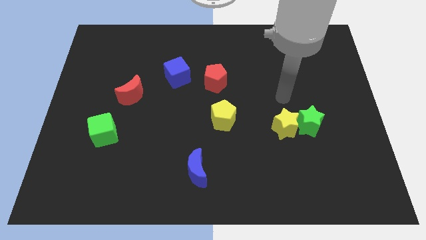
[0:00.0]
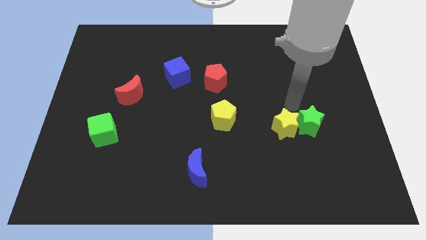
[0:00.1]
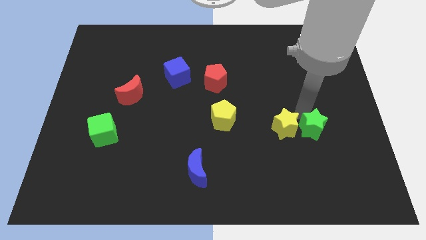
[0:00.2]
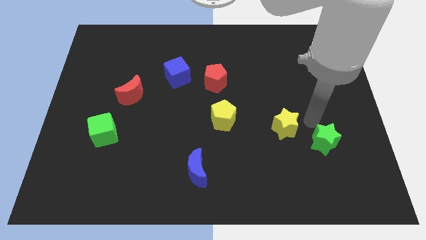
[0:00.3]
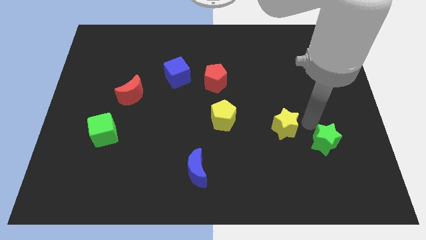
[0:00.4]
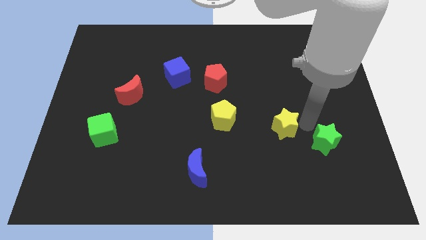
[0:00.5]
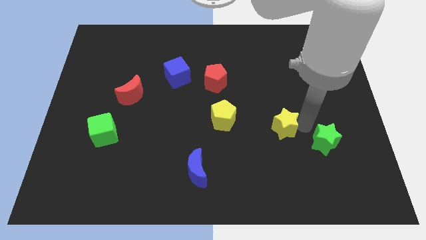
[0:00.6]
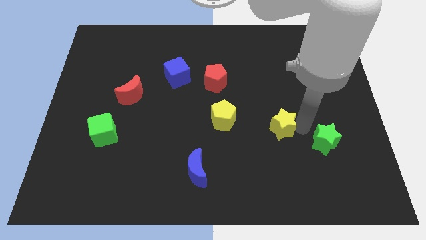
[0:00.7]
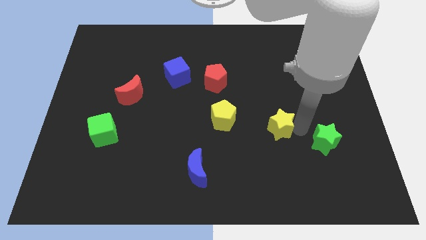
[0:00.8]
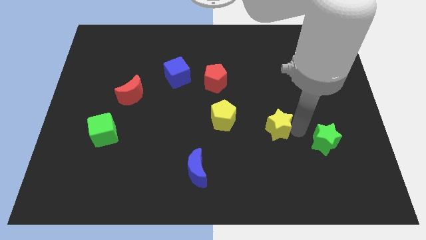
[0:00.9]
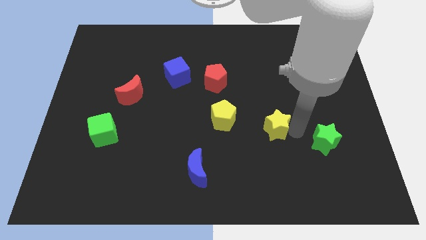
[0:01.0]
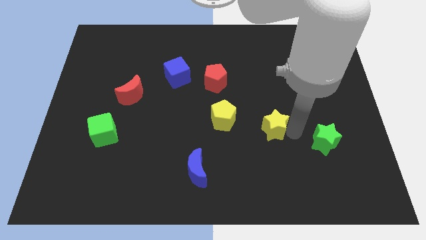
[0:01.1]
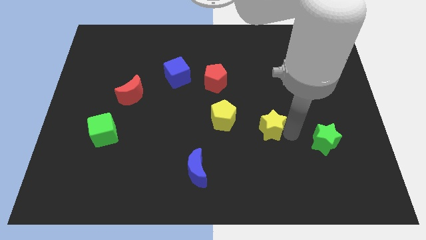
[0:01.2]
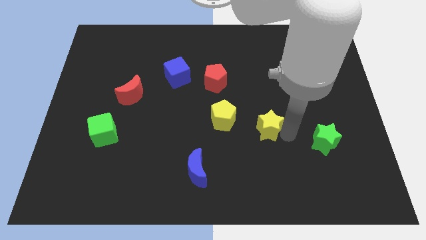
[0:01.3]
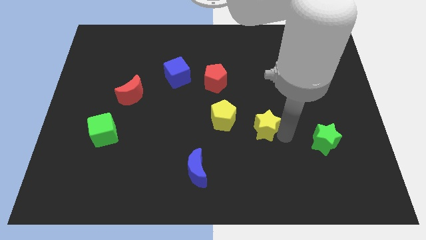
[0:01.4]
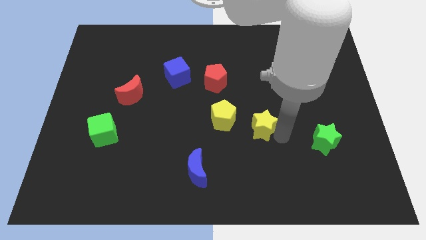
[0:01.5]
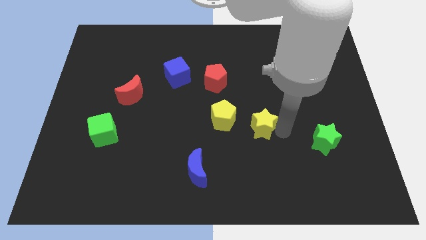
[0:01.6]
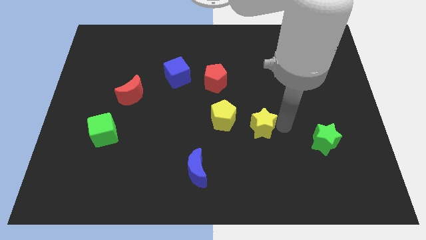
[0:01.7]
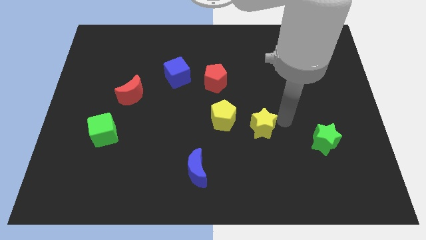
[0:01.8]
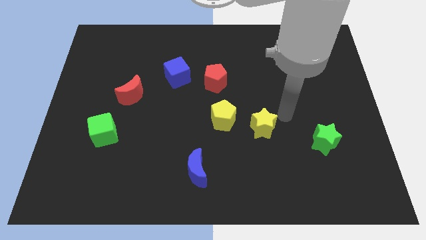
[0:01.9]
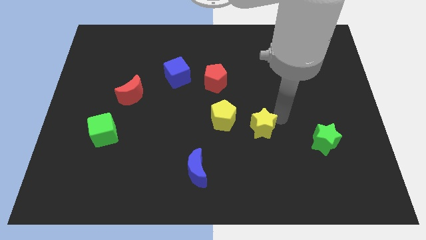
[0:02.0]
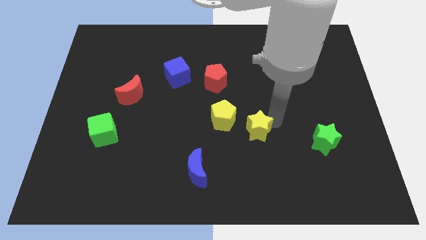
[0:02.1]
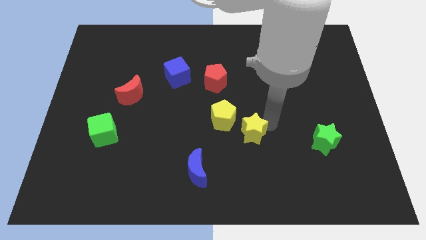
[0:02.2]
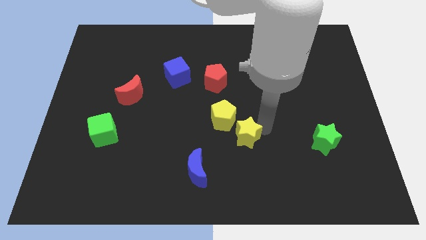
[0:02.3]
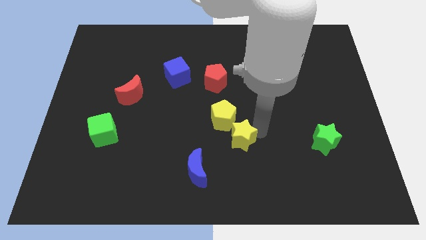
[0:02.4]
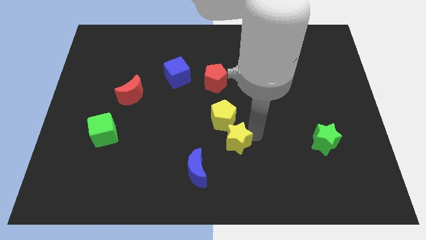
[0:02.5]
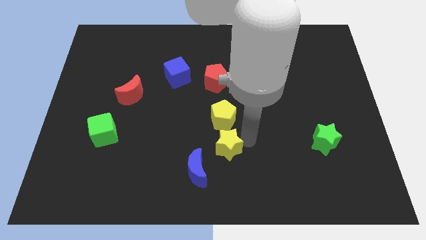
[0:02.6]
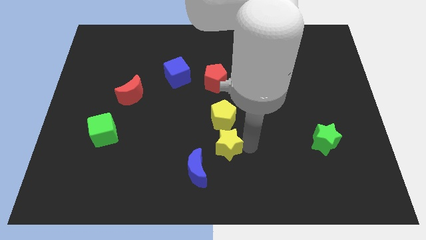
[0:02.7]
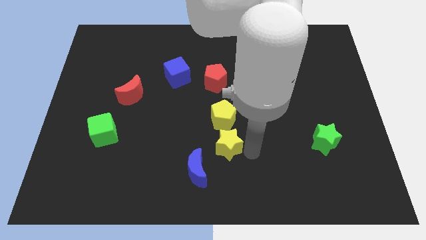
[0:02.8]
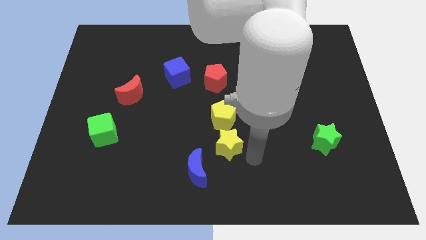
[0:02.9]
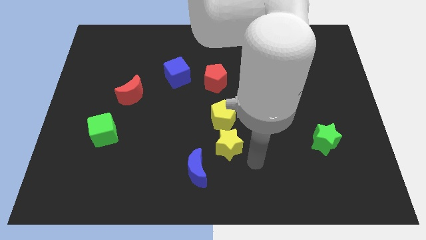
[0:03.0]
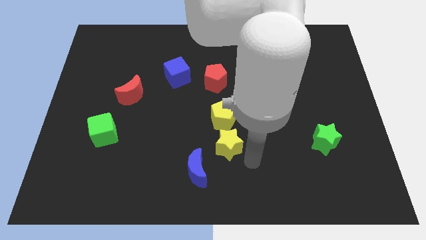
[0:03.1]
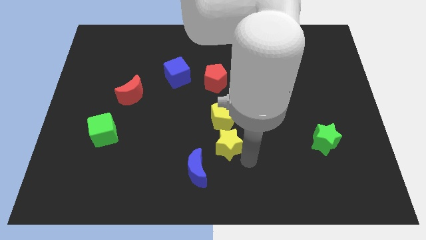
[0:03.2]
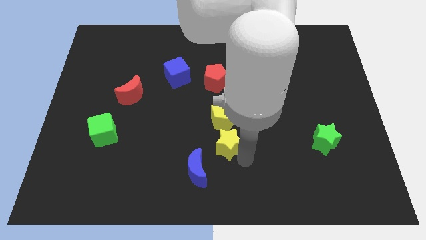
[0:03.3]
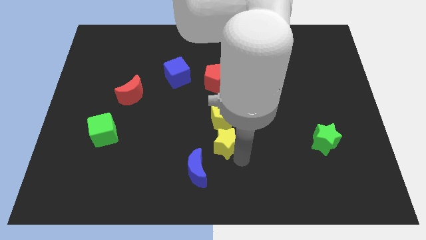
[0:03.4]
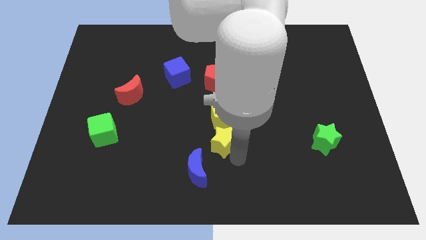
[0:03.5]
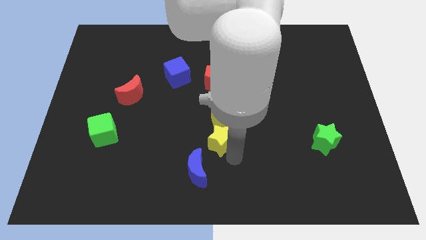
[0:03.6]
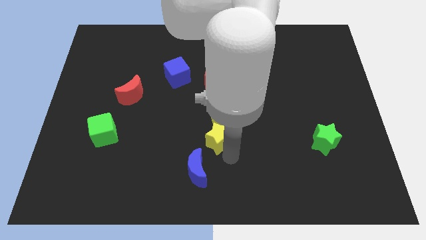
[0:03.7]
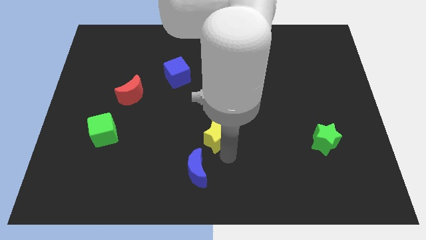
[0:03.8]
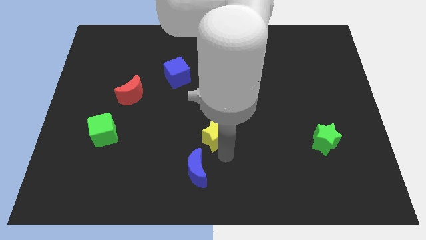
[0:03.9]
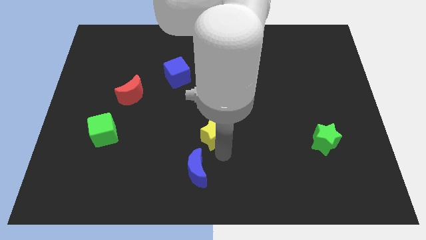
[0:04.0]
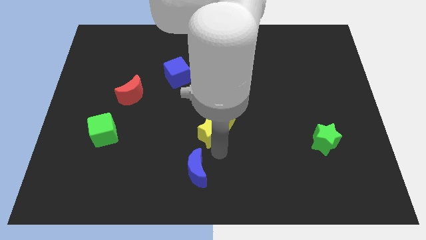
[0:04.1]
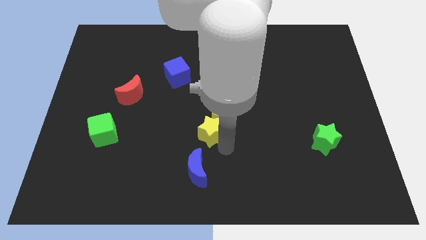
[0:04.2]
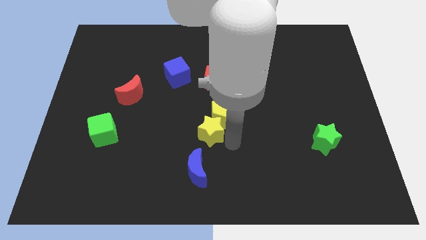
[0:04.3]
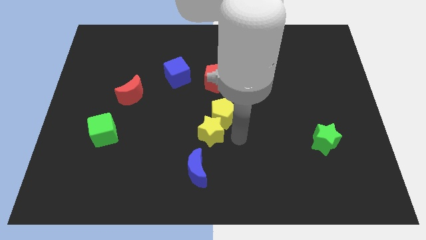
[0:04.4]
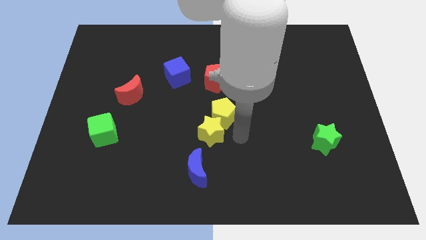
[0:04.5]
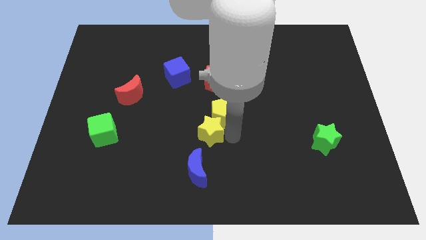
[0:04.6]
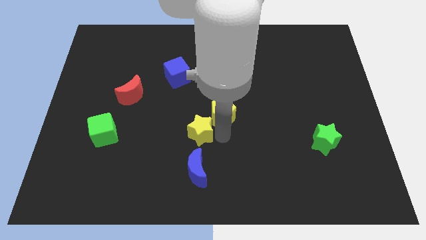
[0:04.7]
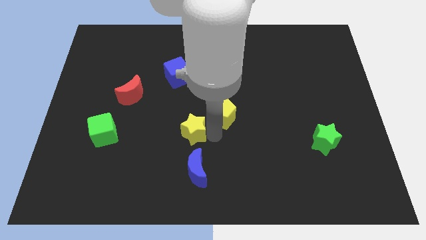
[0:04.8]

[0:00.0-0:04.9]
move the yellow star left

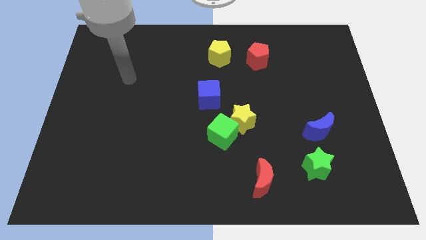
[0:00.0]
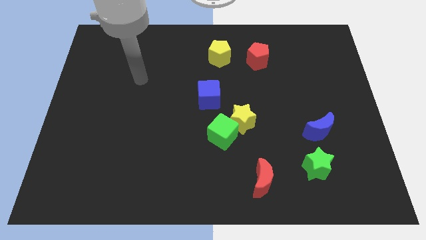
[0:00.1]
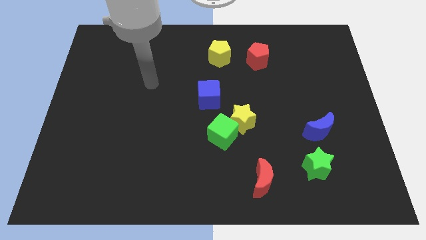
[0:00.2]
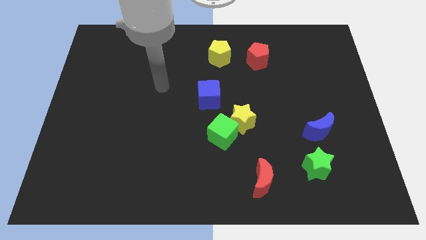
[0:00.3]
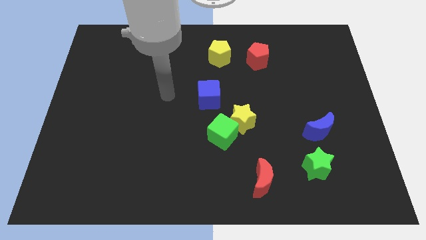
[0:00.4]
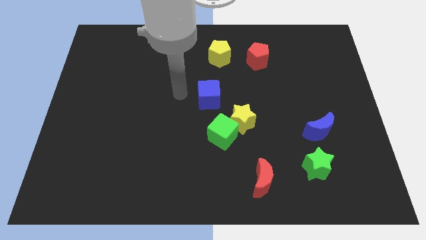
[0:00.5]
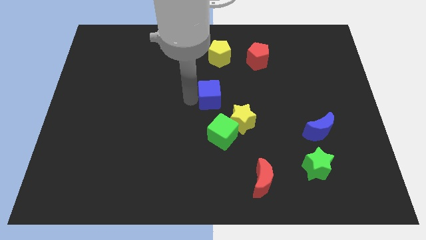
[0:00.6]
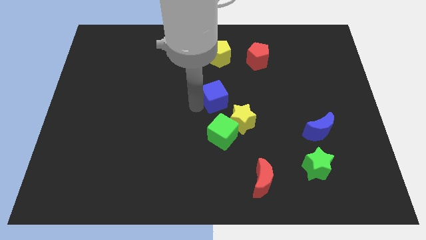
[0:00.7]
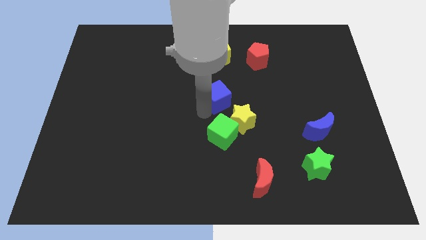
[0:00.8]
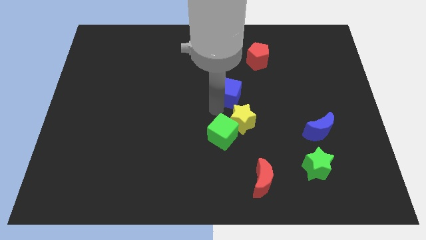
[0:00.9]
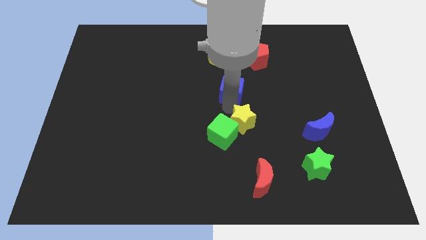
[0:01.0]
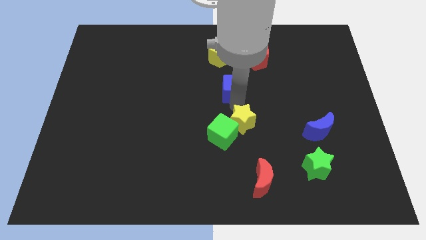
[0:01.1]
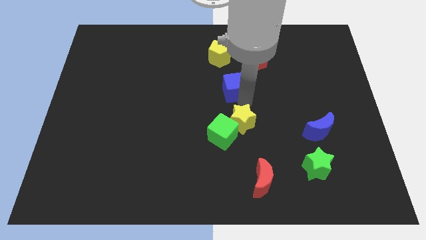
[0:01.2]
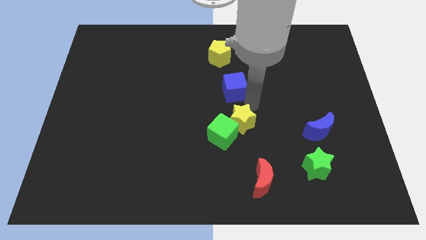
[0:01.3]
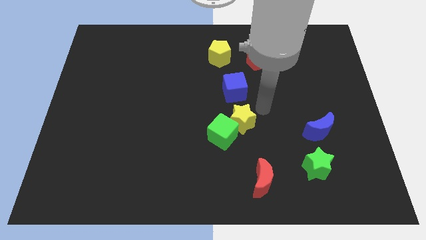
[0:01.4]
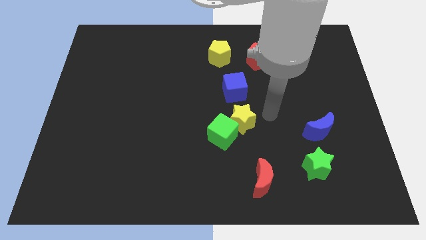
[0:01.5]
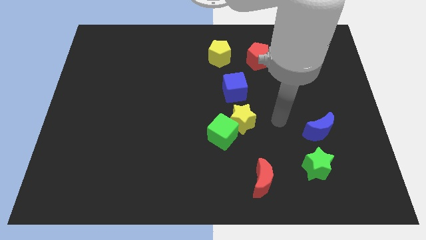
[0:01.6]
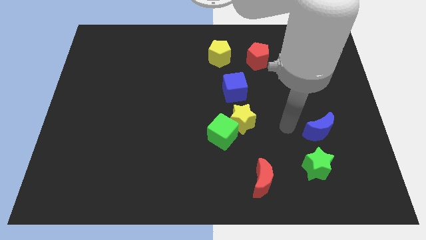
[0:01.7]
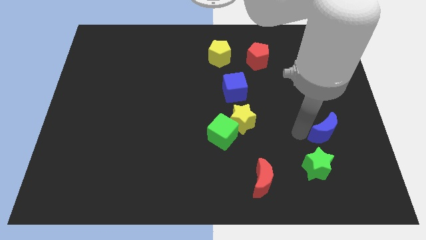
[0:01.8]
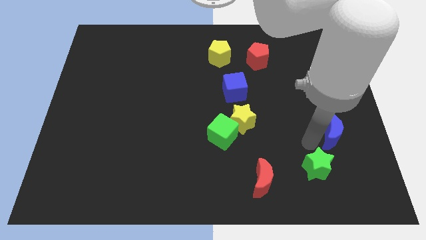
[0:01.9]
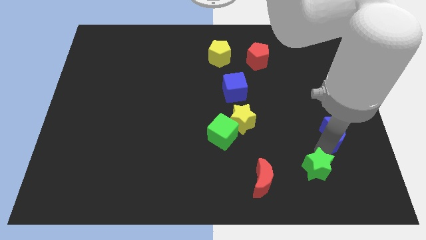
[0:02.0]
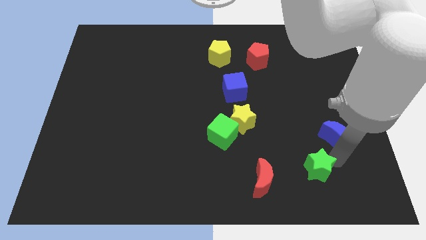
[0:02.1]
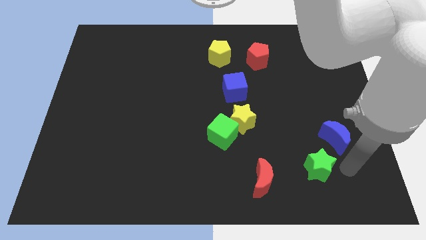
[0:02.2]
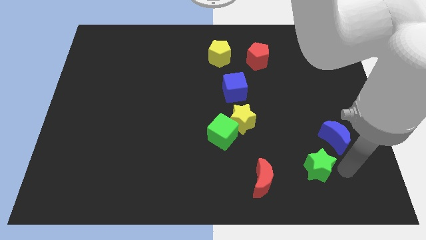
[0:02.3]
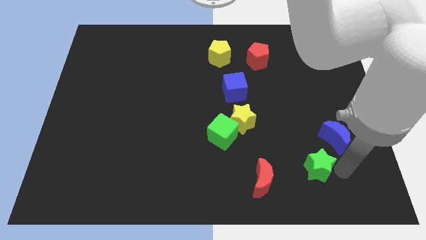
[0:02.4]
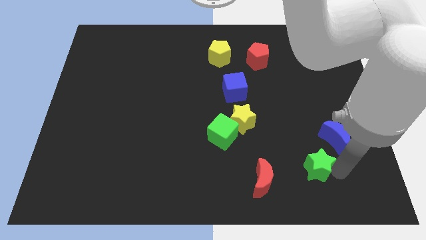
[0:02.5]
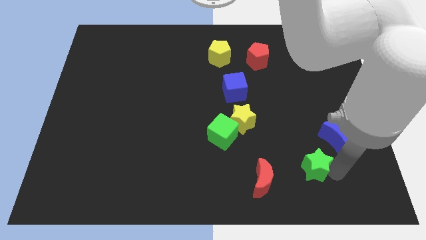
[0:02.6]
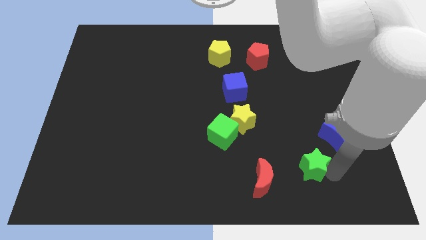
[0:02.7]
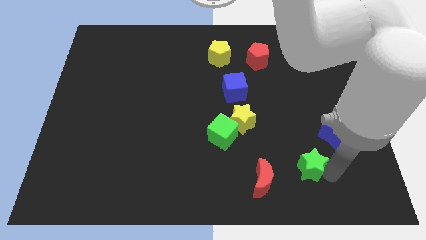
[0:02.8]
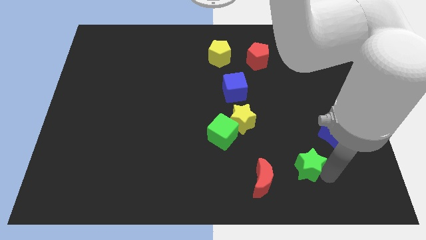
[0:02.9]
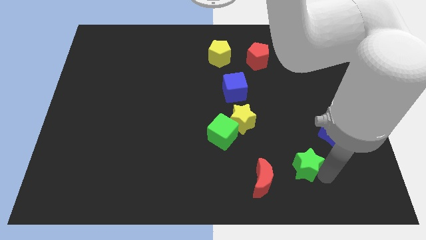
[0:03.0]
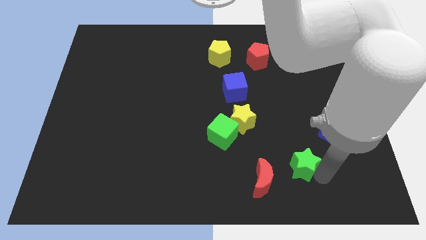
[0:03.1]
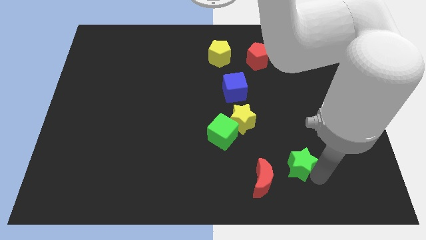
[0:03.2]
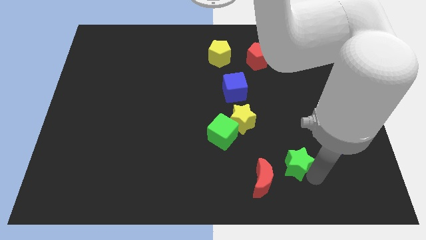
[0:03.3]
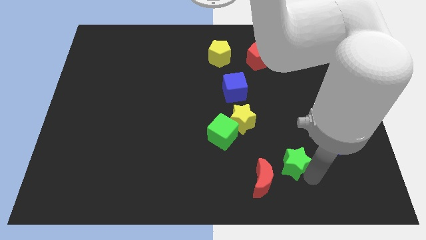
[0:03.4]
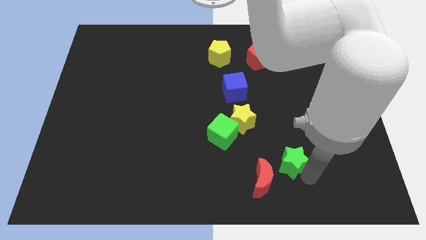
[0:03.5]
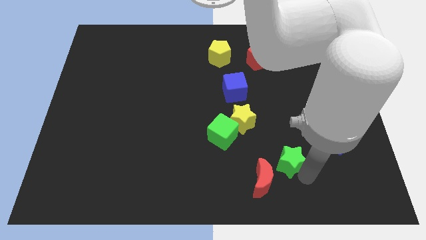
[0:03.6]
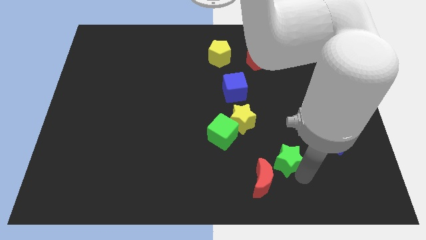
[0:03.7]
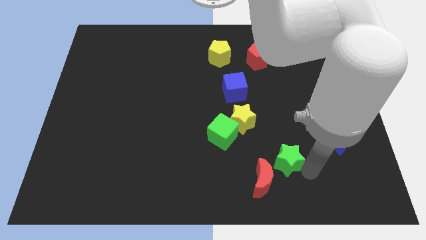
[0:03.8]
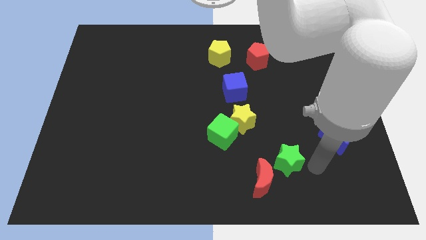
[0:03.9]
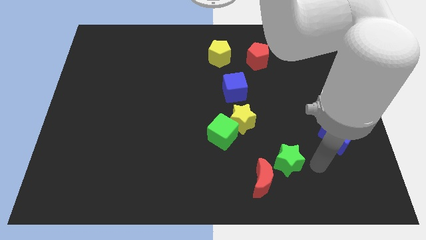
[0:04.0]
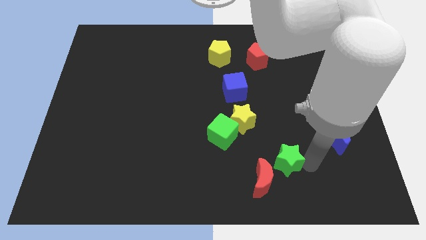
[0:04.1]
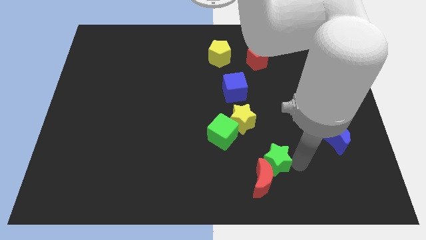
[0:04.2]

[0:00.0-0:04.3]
push the green star somewhat to the left
